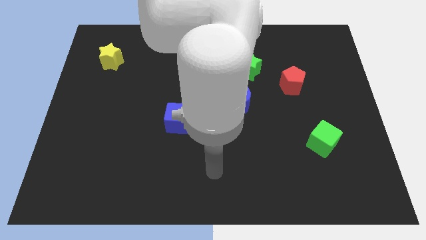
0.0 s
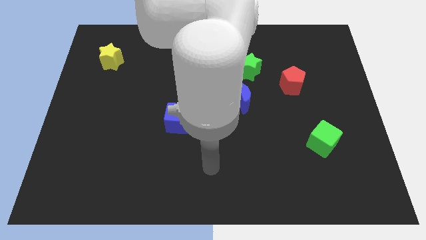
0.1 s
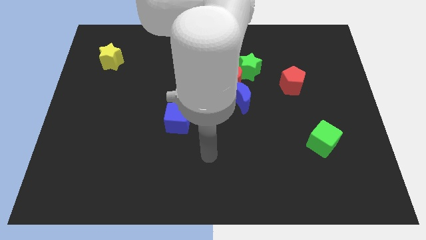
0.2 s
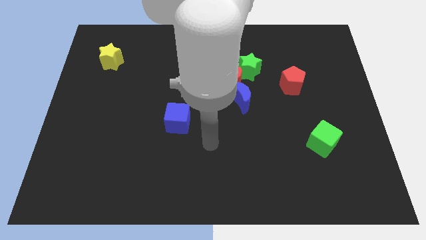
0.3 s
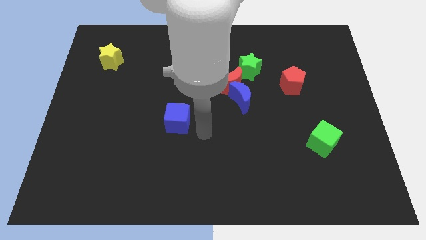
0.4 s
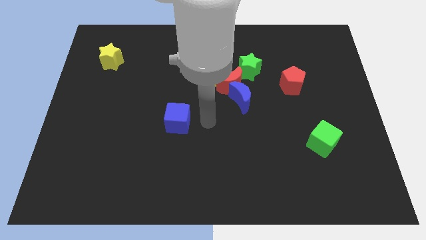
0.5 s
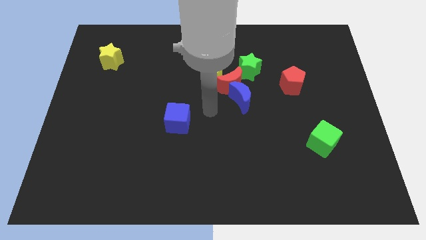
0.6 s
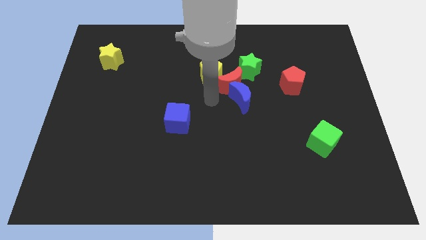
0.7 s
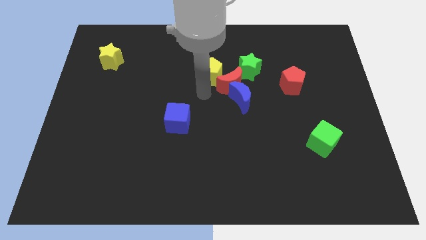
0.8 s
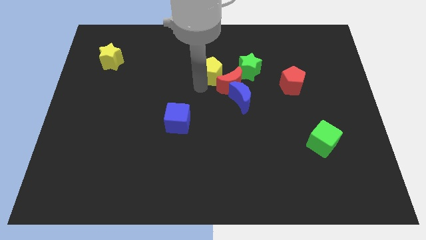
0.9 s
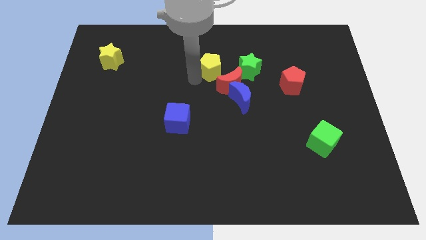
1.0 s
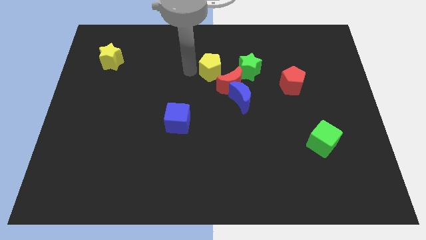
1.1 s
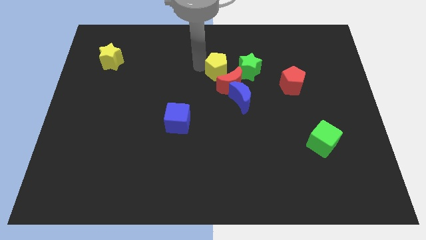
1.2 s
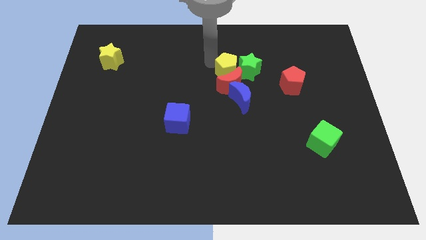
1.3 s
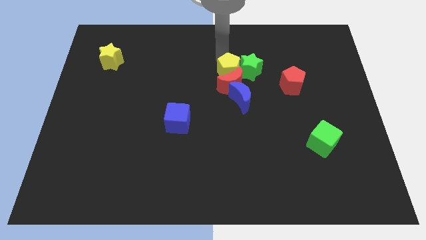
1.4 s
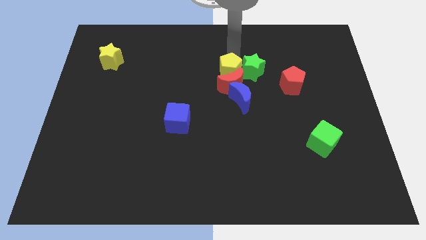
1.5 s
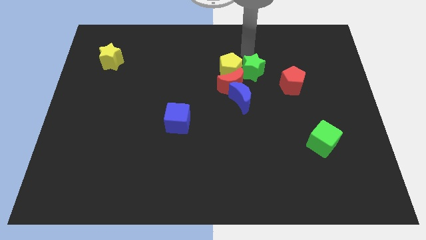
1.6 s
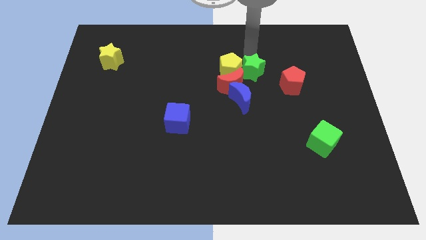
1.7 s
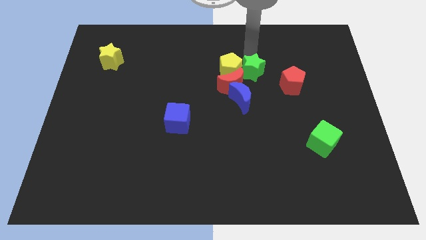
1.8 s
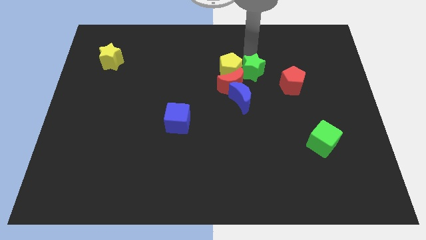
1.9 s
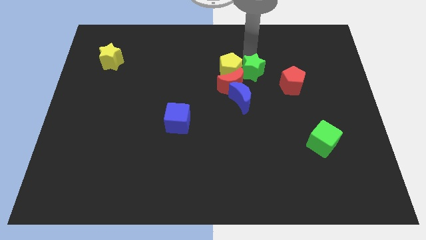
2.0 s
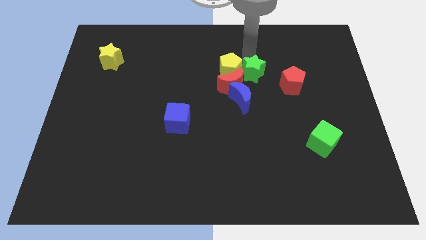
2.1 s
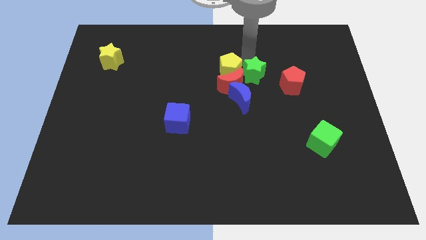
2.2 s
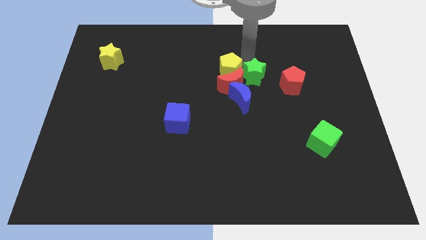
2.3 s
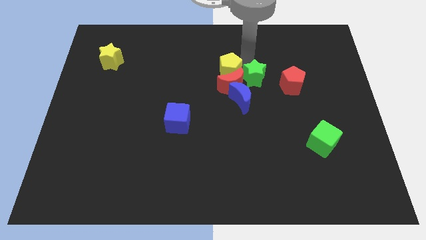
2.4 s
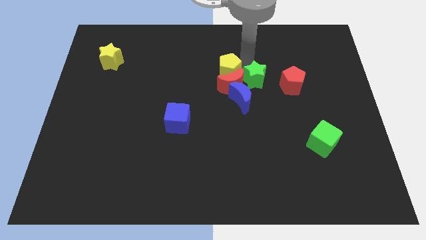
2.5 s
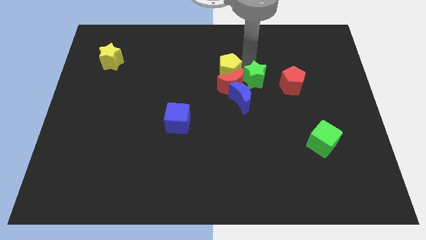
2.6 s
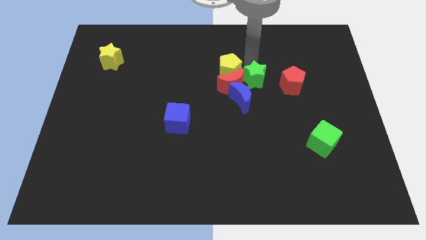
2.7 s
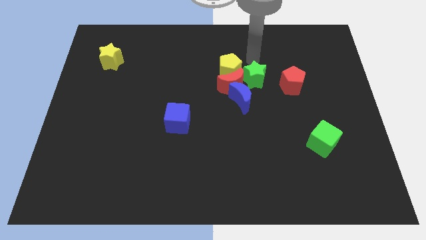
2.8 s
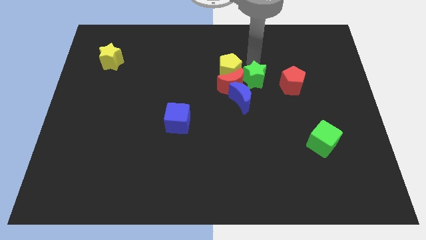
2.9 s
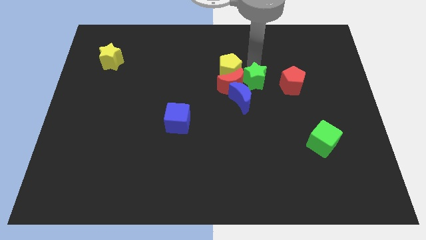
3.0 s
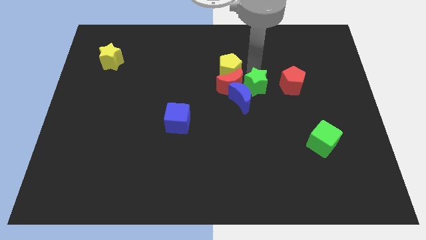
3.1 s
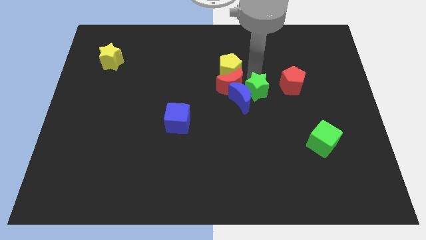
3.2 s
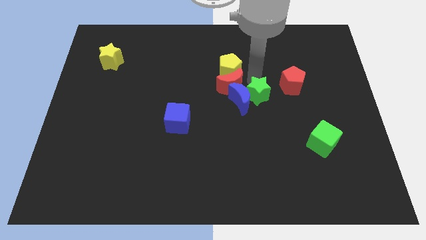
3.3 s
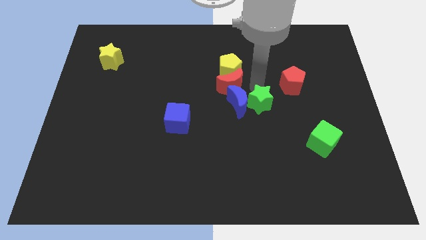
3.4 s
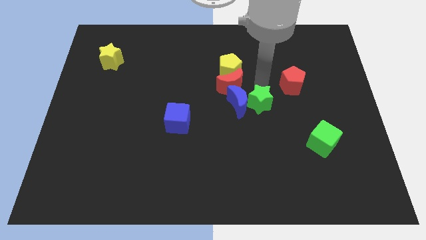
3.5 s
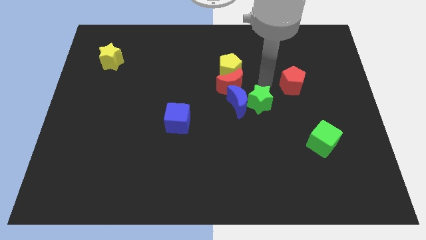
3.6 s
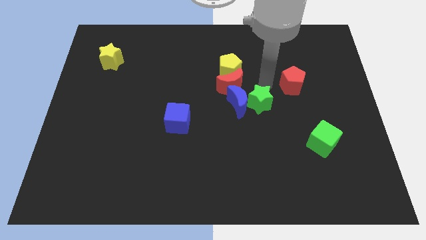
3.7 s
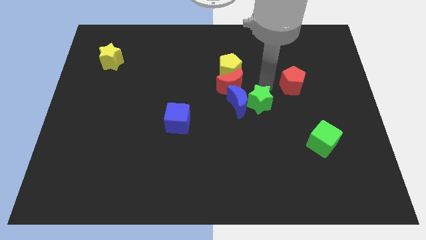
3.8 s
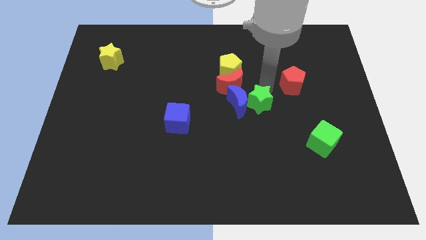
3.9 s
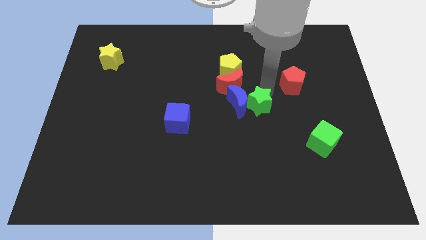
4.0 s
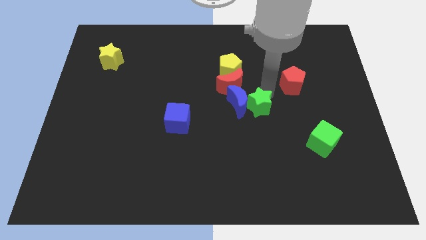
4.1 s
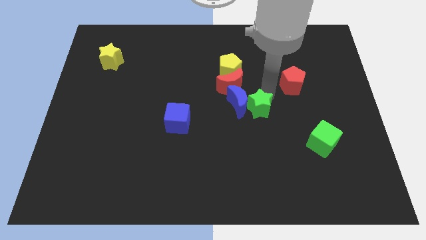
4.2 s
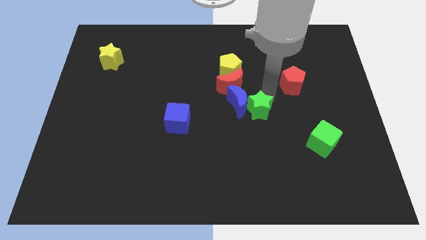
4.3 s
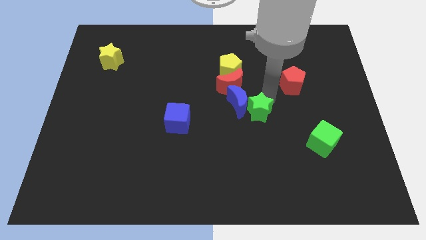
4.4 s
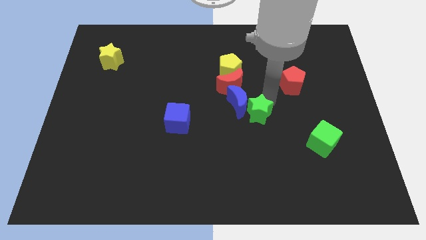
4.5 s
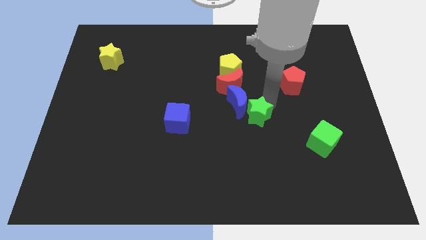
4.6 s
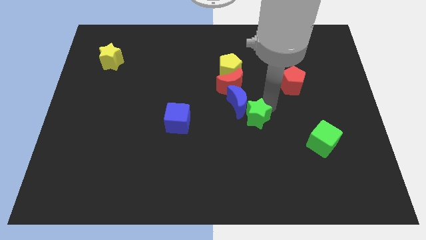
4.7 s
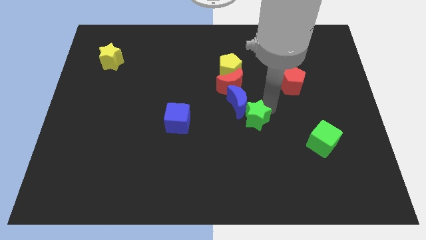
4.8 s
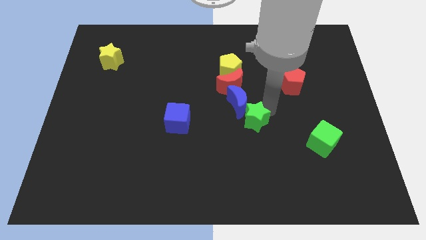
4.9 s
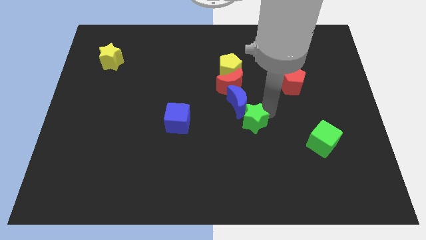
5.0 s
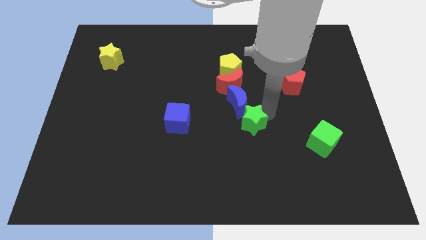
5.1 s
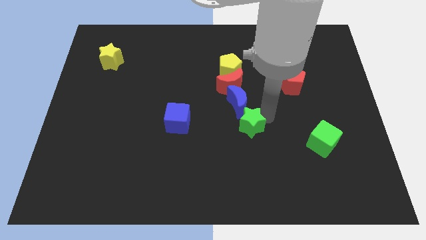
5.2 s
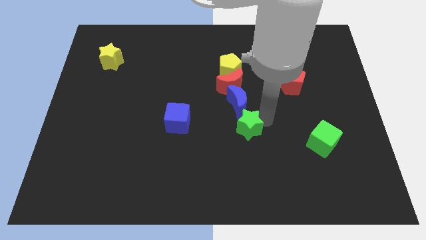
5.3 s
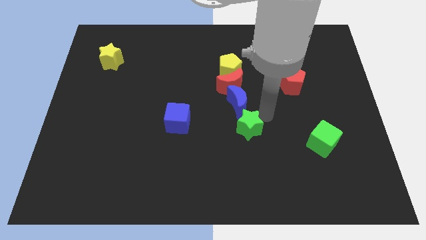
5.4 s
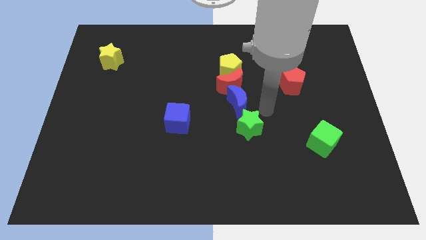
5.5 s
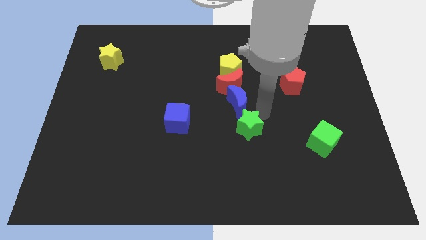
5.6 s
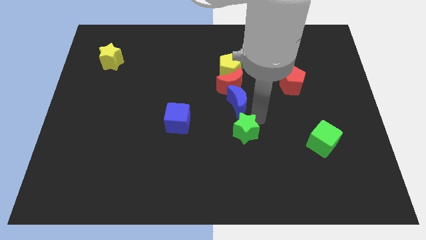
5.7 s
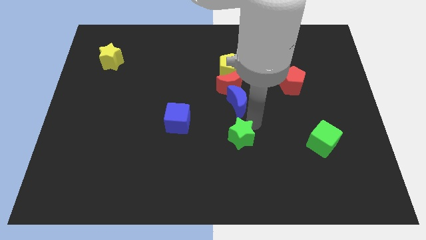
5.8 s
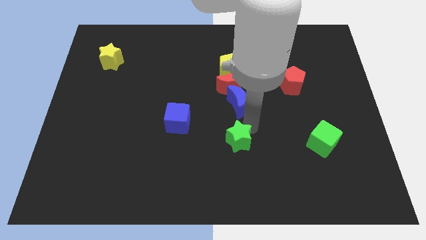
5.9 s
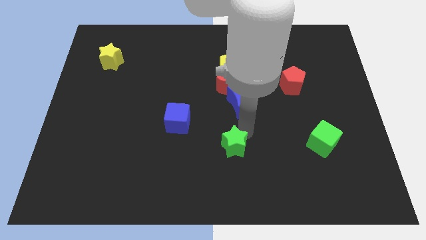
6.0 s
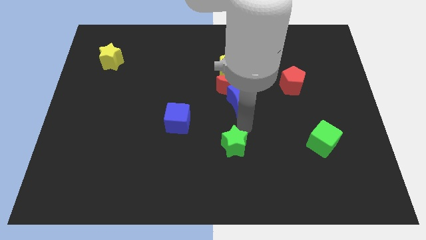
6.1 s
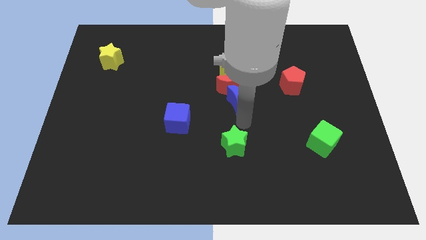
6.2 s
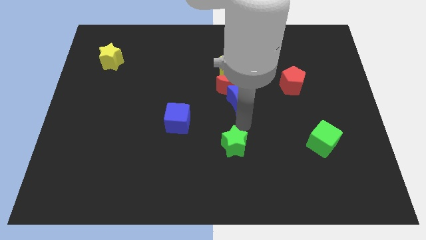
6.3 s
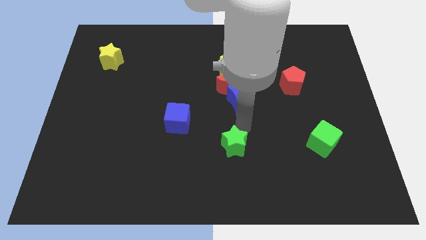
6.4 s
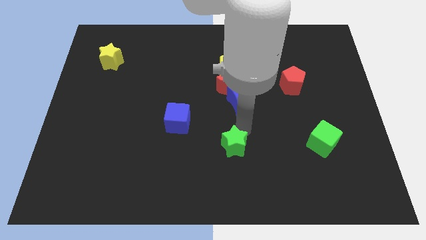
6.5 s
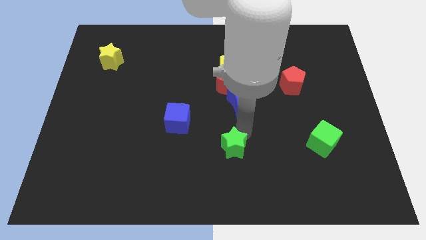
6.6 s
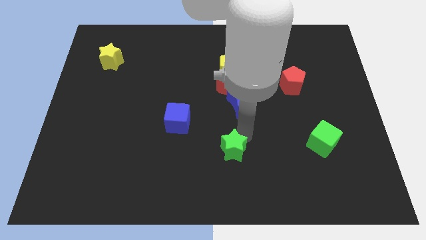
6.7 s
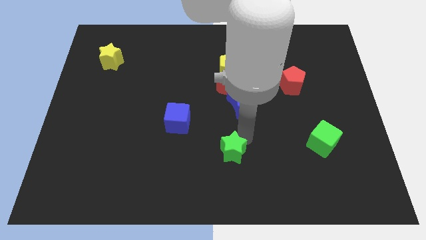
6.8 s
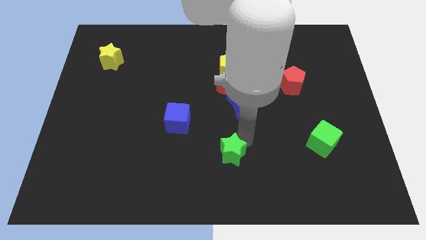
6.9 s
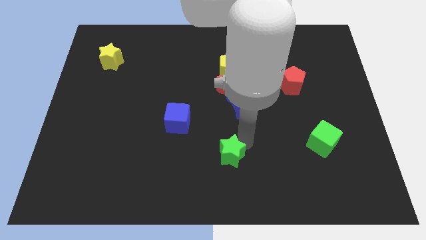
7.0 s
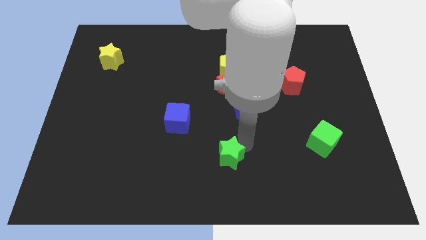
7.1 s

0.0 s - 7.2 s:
put the green star to the bottom side
